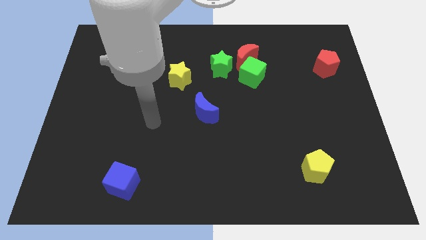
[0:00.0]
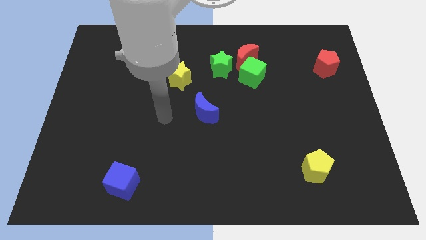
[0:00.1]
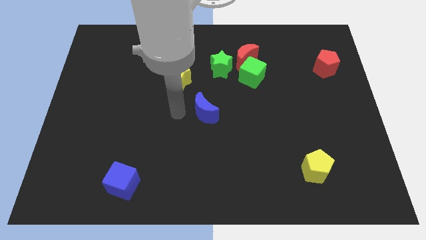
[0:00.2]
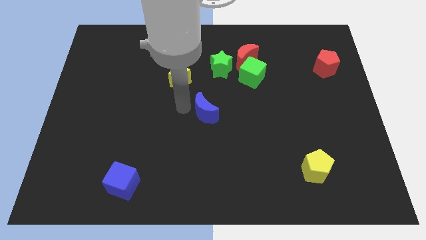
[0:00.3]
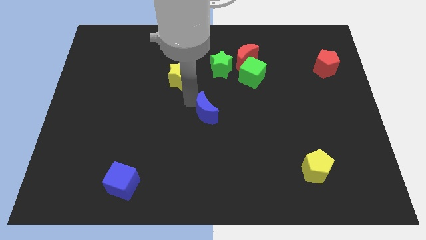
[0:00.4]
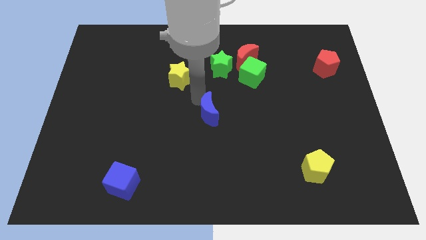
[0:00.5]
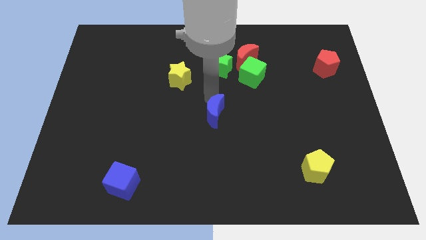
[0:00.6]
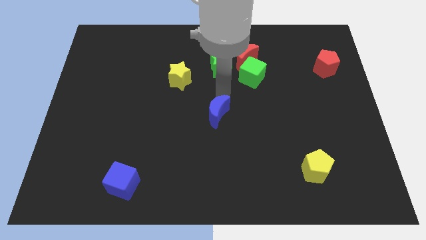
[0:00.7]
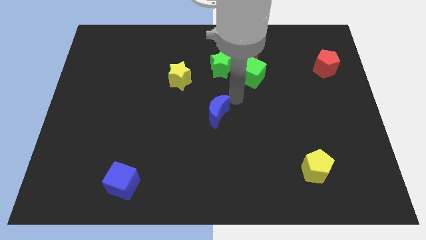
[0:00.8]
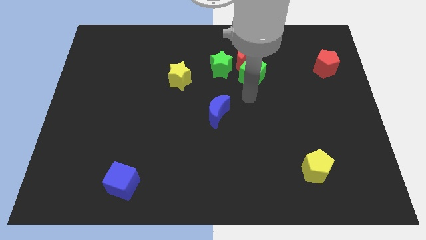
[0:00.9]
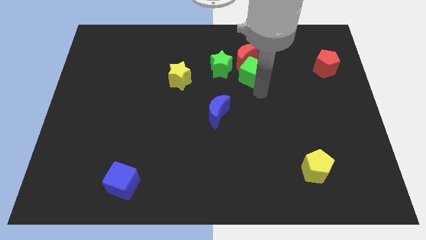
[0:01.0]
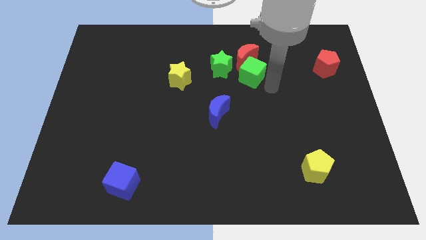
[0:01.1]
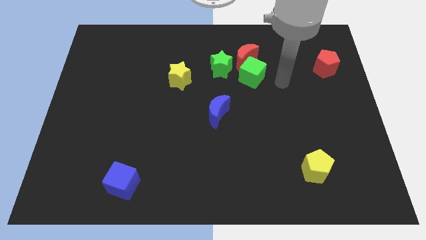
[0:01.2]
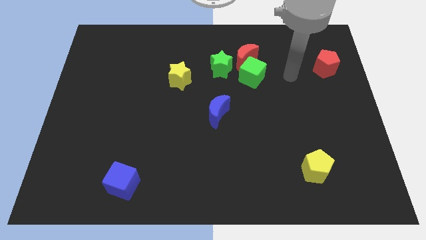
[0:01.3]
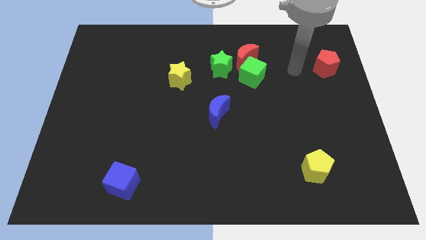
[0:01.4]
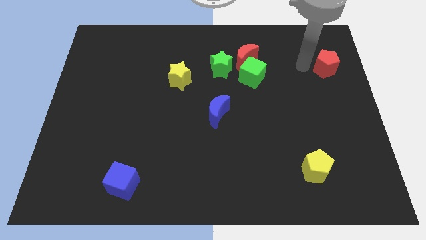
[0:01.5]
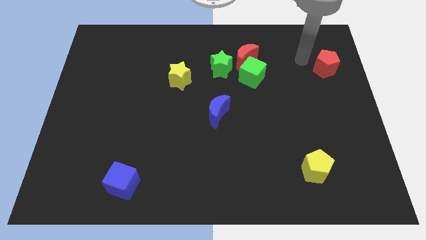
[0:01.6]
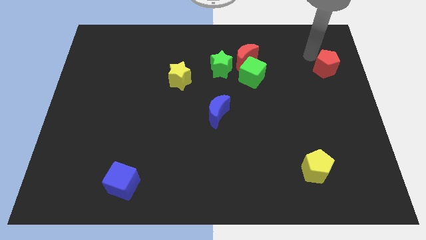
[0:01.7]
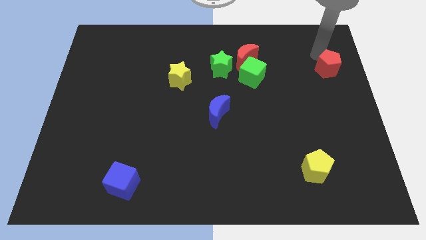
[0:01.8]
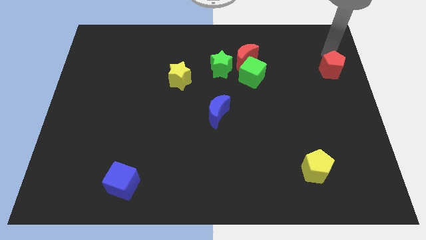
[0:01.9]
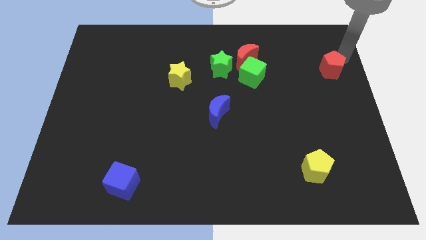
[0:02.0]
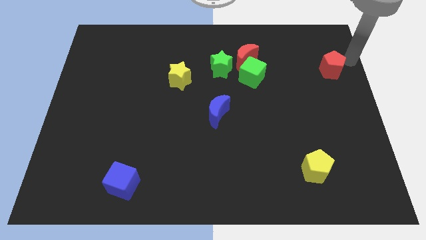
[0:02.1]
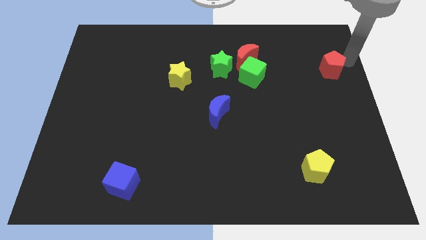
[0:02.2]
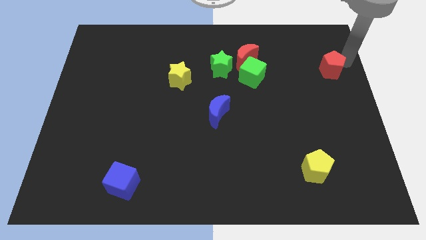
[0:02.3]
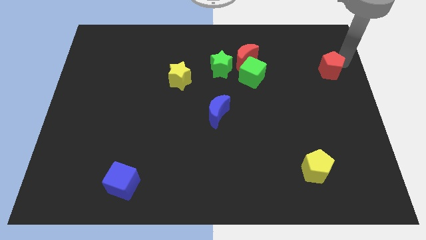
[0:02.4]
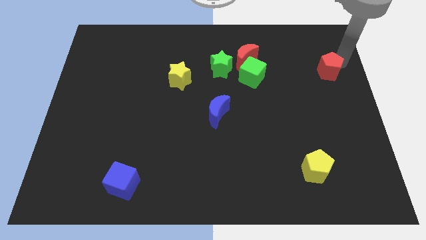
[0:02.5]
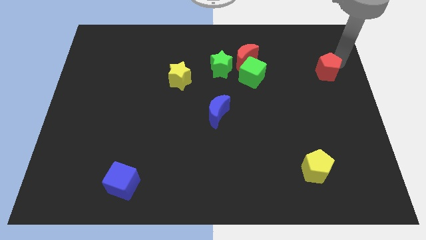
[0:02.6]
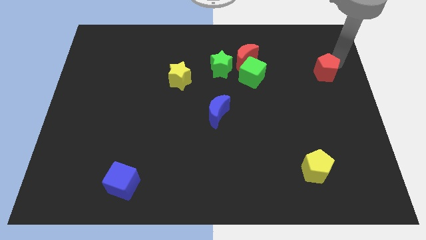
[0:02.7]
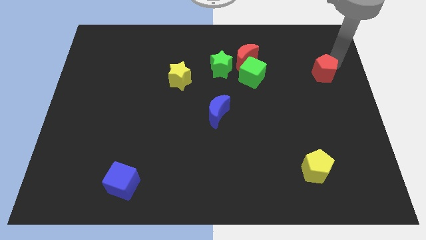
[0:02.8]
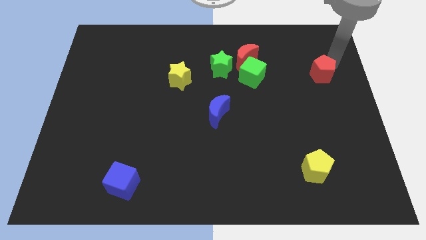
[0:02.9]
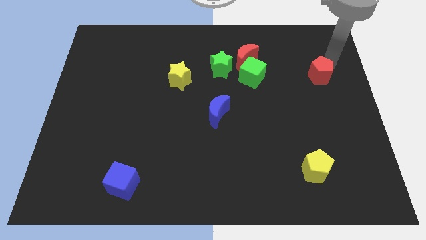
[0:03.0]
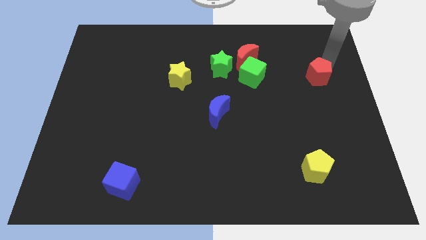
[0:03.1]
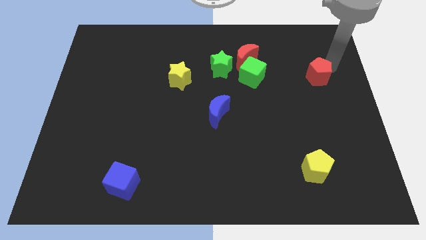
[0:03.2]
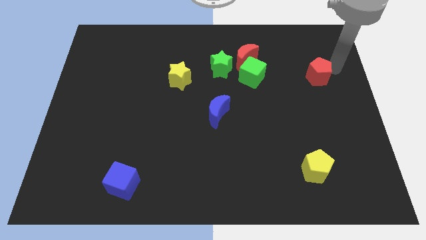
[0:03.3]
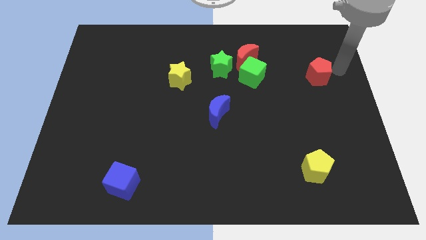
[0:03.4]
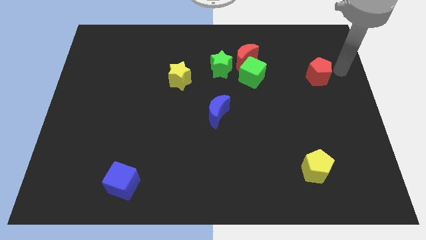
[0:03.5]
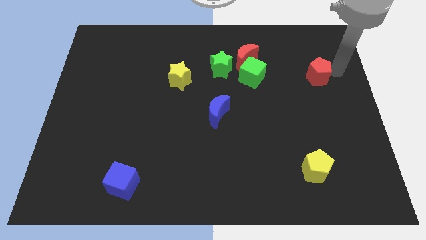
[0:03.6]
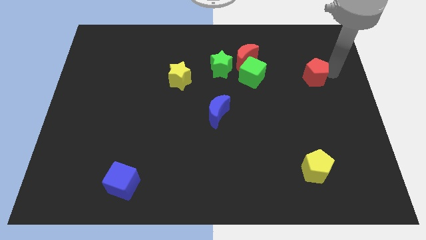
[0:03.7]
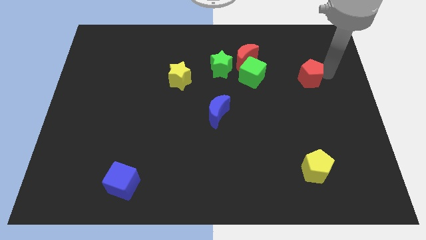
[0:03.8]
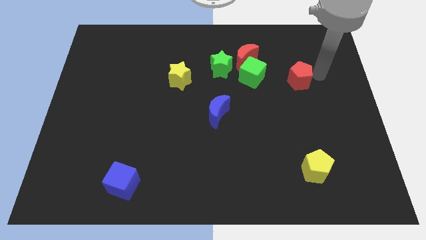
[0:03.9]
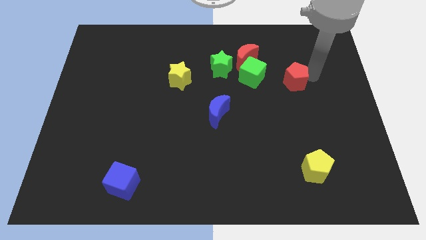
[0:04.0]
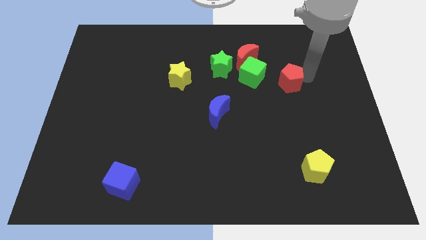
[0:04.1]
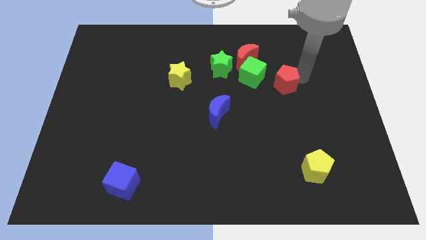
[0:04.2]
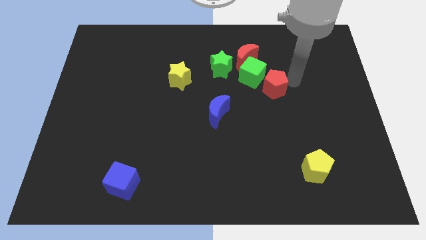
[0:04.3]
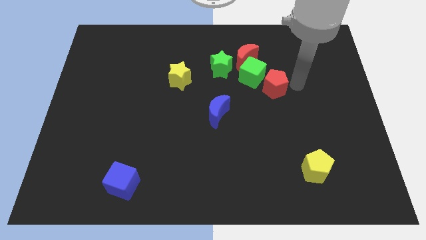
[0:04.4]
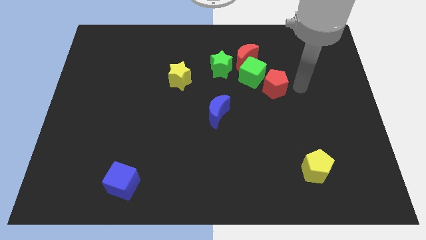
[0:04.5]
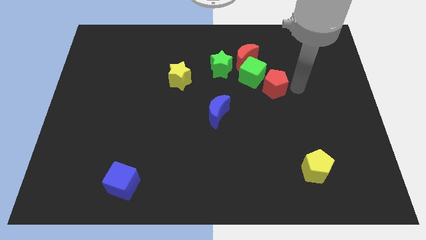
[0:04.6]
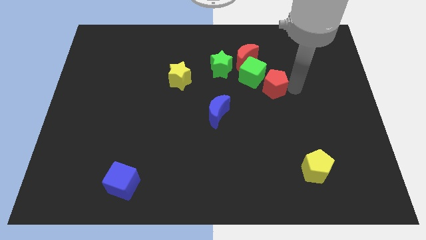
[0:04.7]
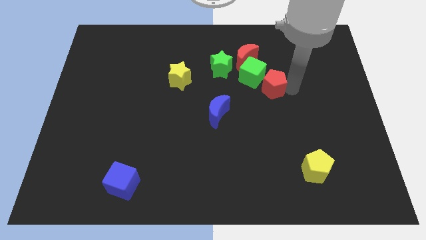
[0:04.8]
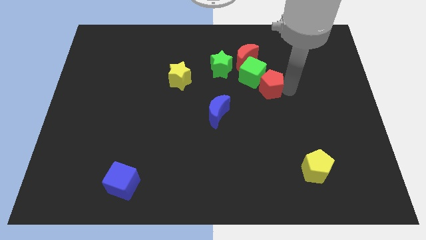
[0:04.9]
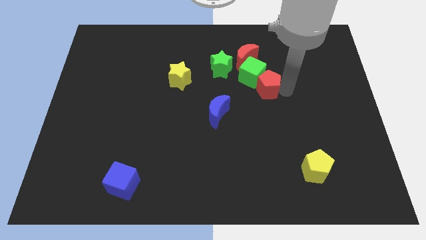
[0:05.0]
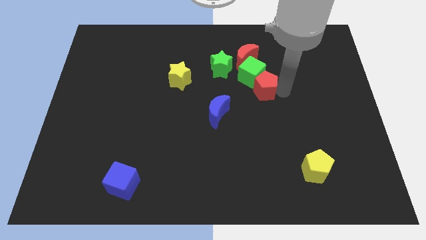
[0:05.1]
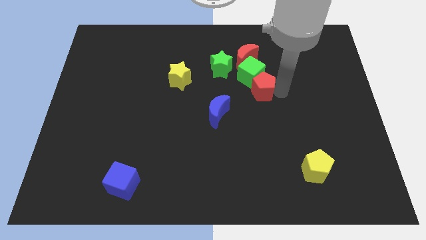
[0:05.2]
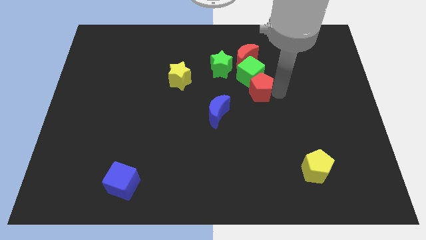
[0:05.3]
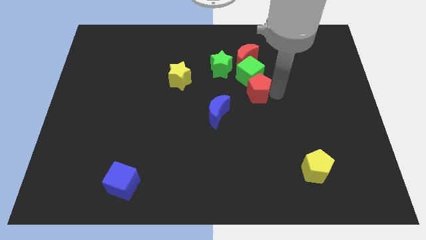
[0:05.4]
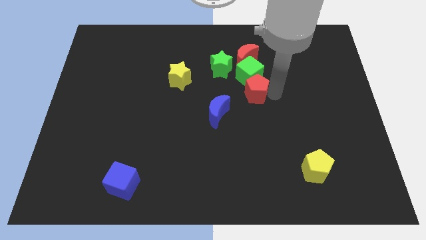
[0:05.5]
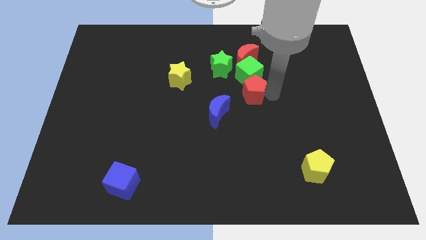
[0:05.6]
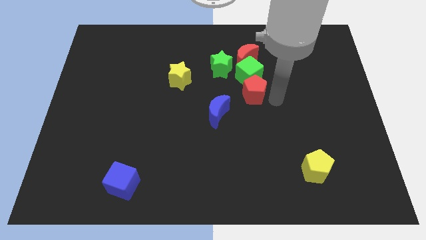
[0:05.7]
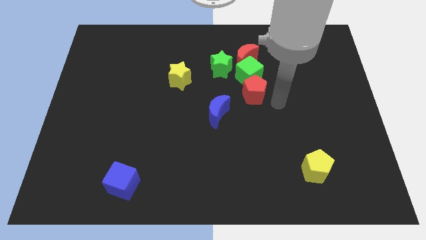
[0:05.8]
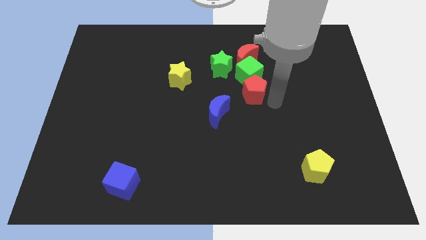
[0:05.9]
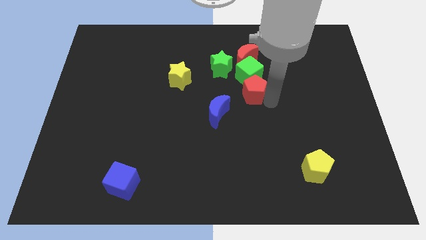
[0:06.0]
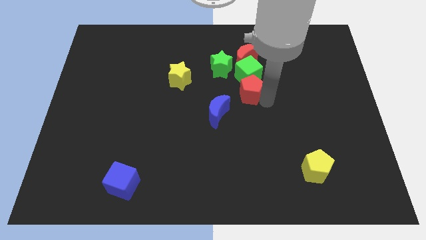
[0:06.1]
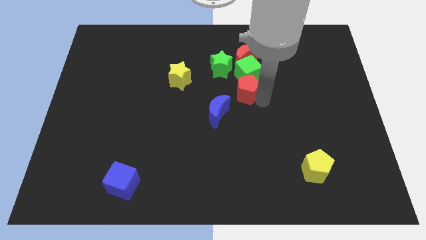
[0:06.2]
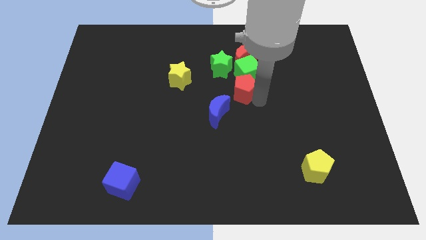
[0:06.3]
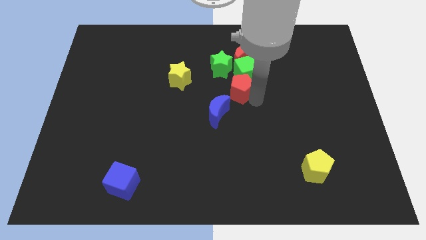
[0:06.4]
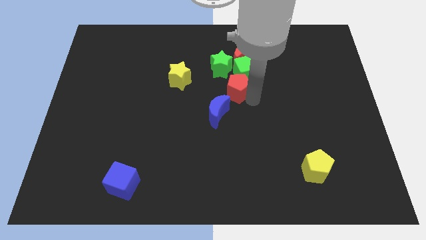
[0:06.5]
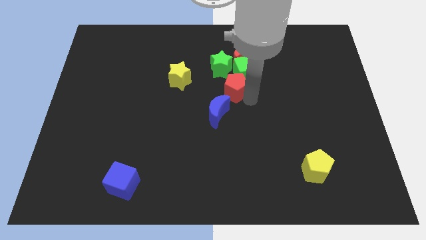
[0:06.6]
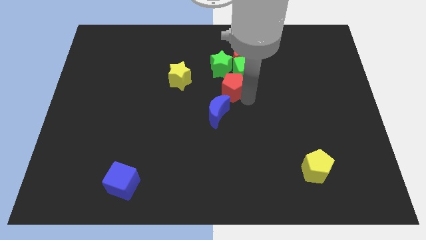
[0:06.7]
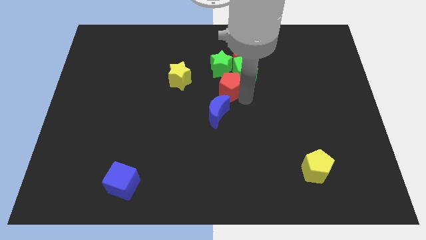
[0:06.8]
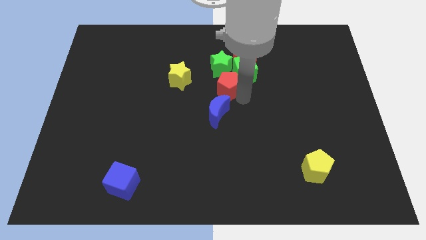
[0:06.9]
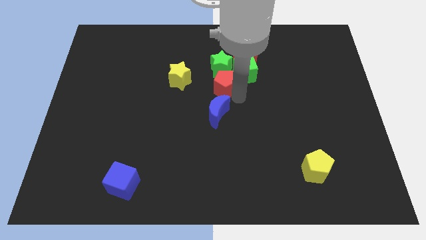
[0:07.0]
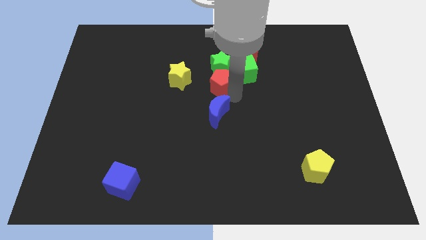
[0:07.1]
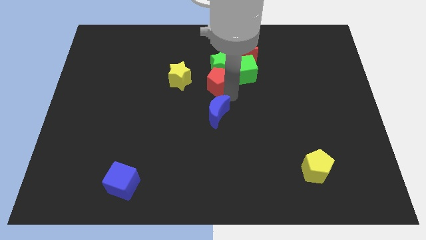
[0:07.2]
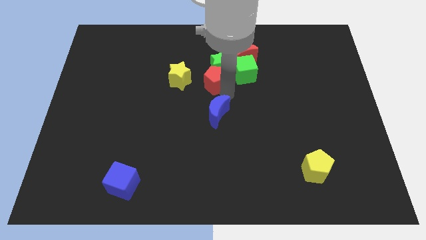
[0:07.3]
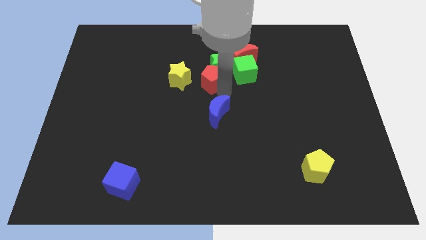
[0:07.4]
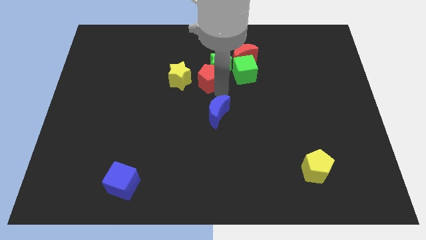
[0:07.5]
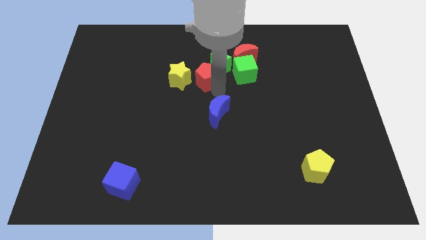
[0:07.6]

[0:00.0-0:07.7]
move the red pentagon to the top right of the yellow star

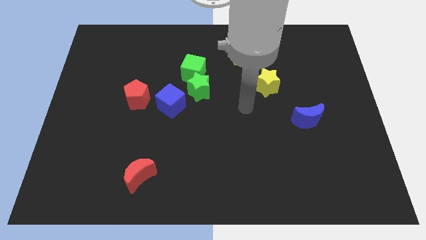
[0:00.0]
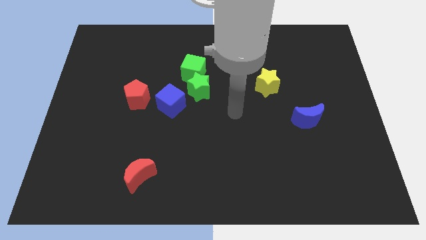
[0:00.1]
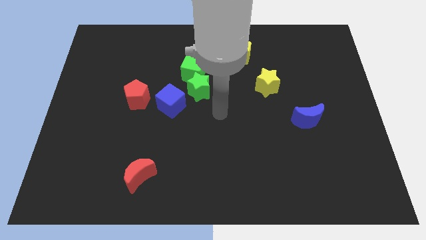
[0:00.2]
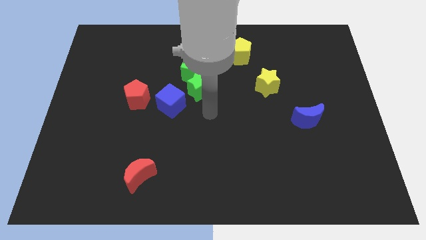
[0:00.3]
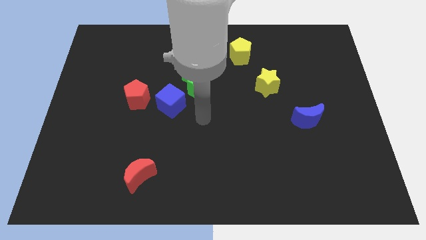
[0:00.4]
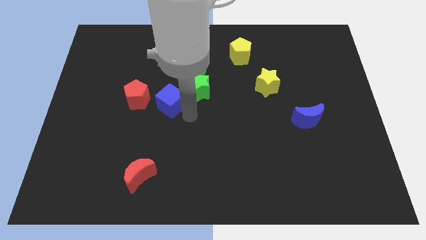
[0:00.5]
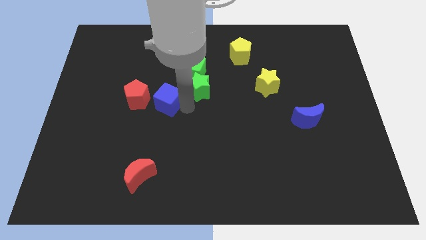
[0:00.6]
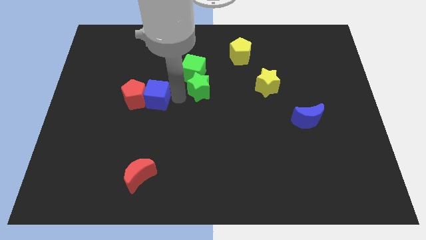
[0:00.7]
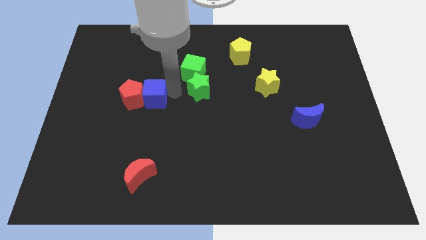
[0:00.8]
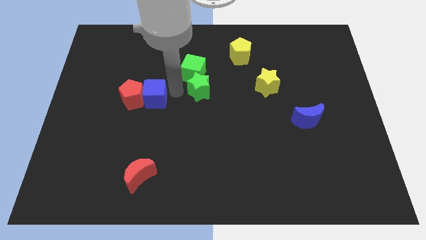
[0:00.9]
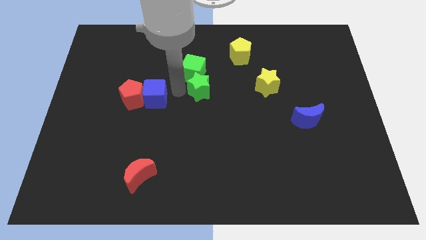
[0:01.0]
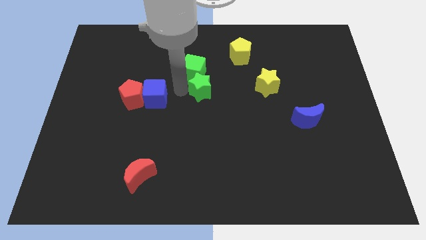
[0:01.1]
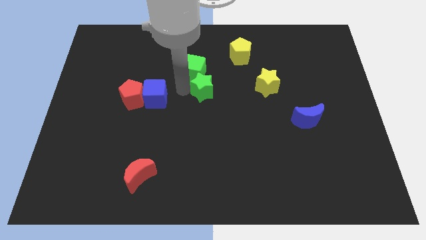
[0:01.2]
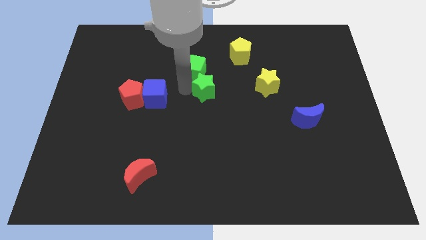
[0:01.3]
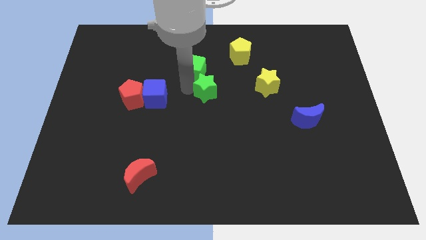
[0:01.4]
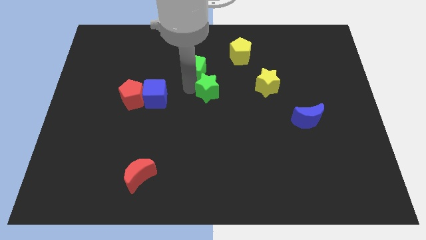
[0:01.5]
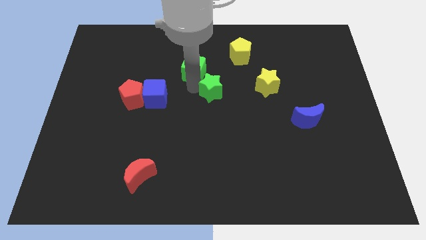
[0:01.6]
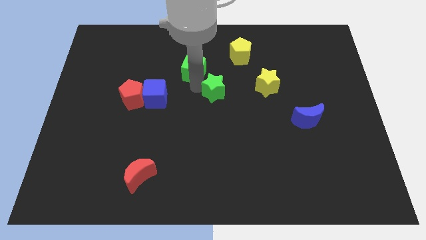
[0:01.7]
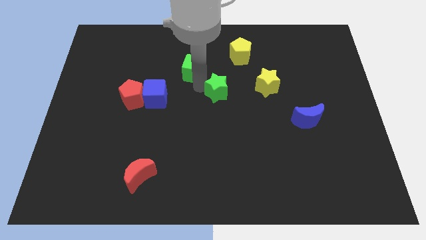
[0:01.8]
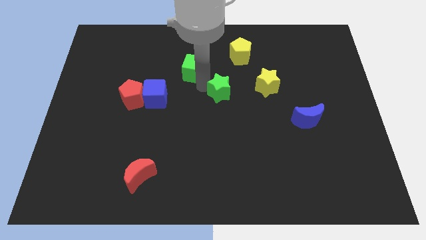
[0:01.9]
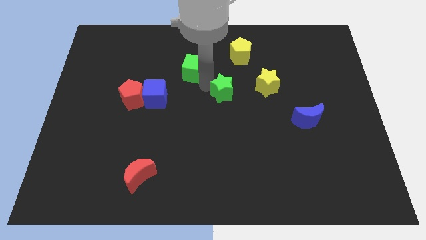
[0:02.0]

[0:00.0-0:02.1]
slide the green star to the bottom of the yellow pentagon
